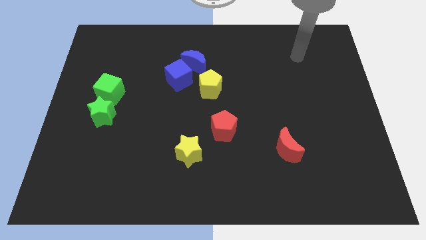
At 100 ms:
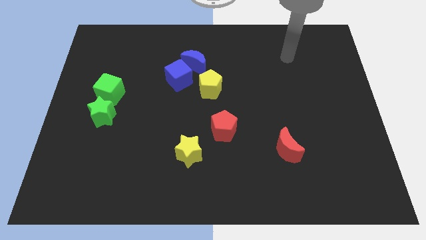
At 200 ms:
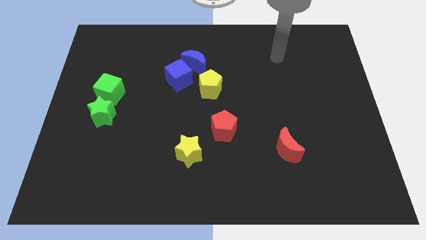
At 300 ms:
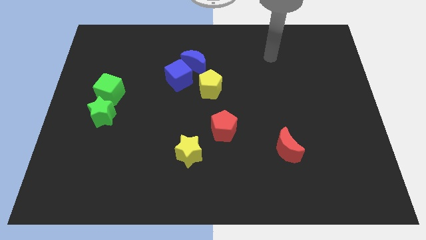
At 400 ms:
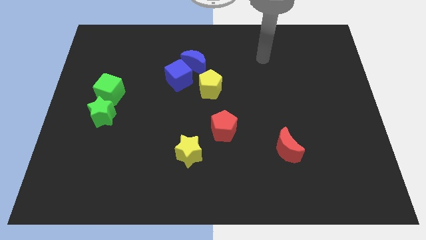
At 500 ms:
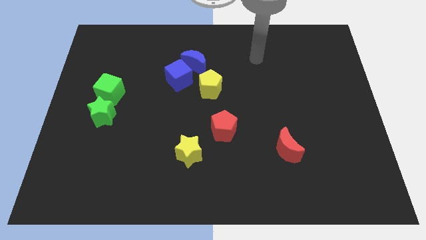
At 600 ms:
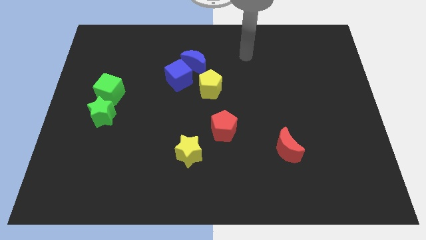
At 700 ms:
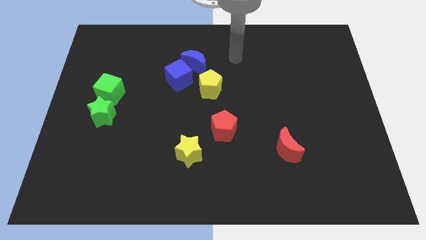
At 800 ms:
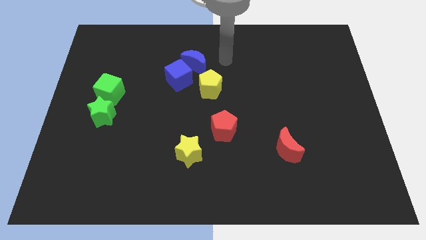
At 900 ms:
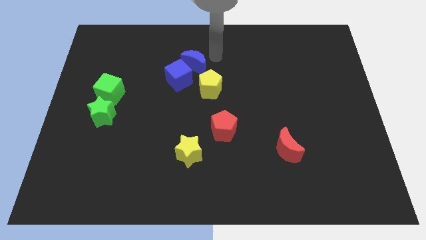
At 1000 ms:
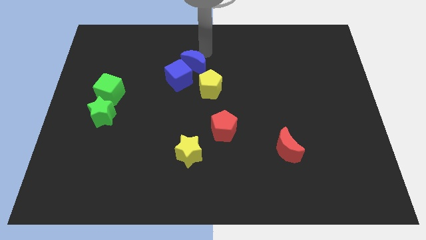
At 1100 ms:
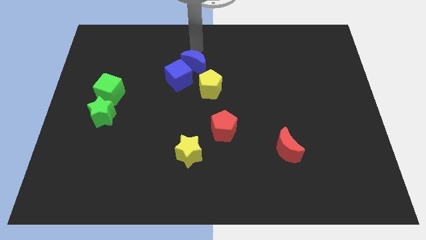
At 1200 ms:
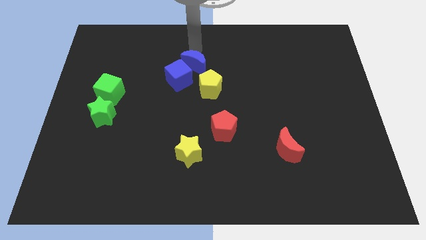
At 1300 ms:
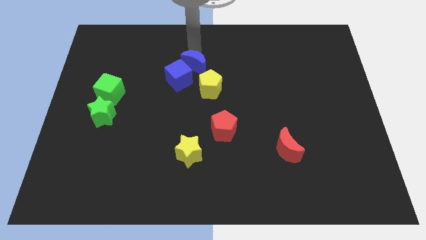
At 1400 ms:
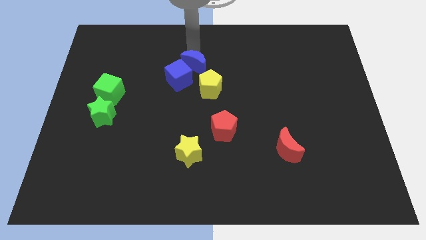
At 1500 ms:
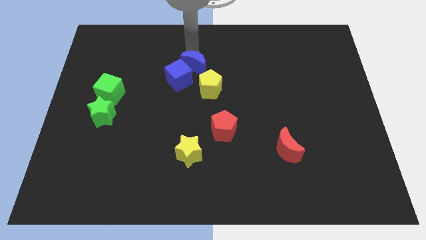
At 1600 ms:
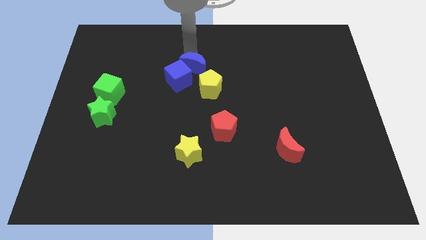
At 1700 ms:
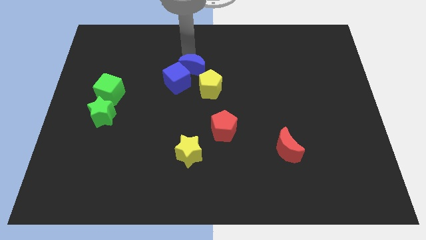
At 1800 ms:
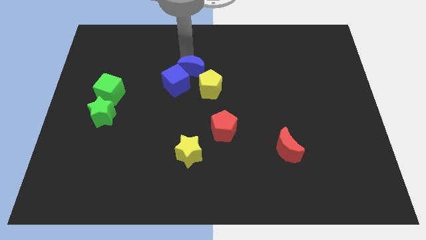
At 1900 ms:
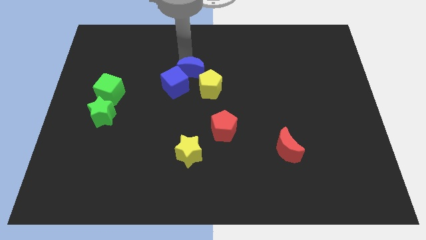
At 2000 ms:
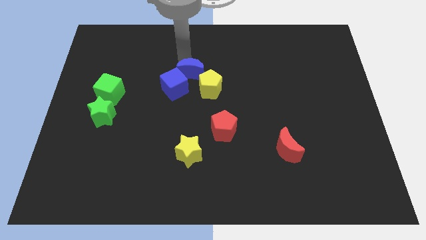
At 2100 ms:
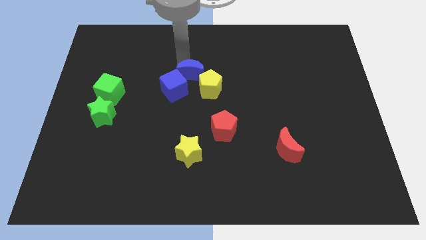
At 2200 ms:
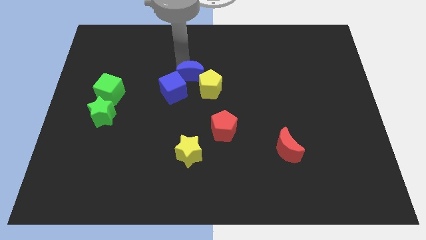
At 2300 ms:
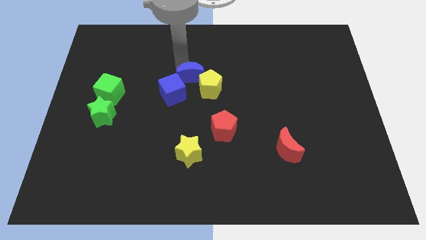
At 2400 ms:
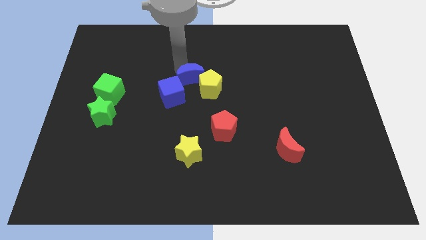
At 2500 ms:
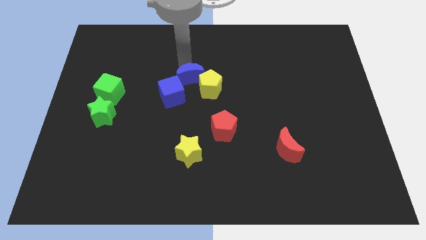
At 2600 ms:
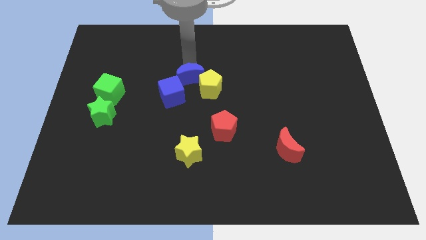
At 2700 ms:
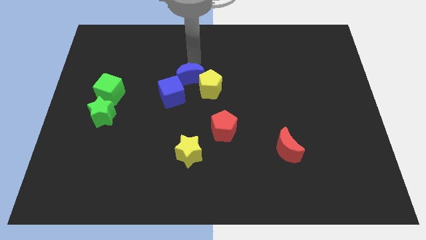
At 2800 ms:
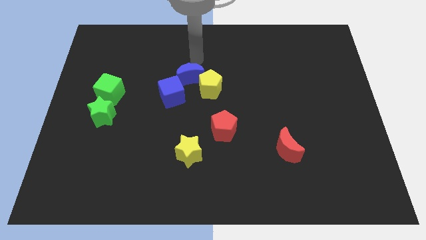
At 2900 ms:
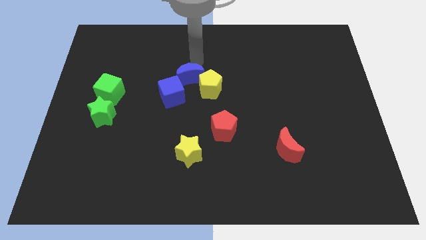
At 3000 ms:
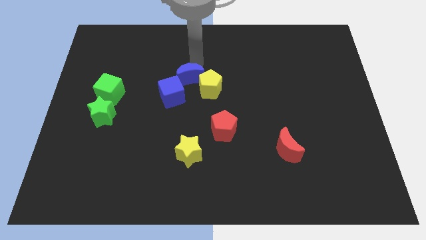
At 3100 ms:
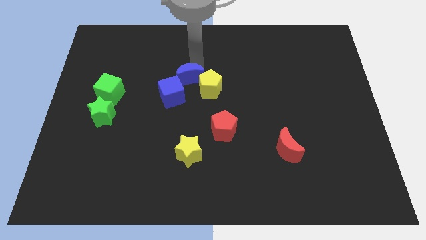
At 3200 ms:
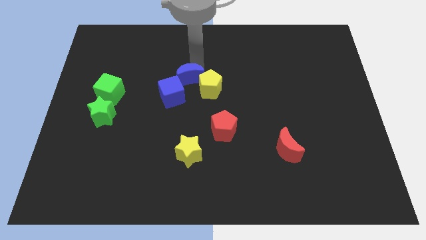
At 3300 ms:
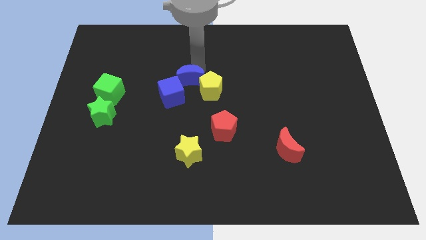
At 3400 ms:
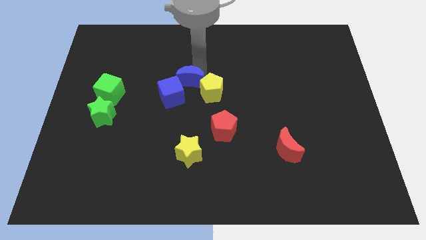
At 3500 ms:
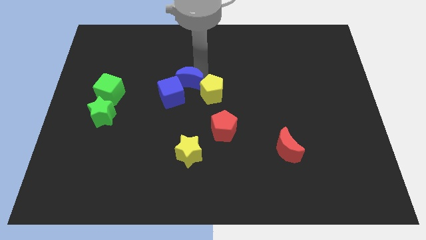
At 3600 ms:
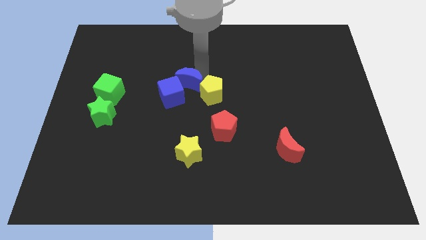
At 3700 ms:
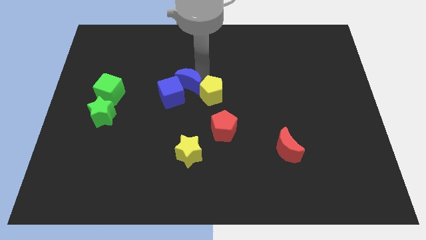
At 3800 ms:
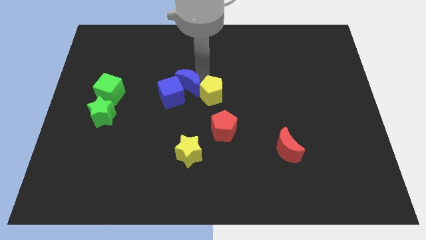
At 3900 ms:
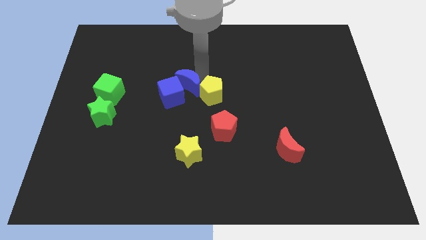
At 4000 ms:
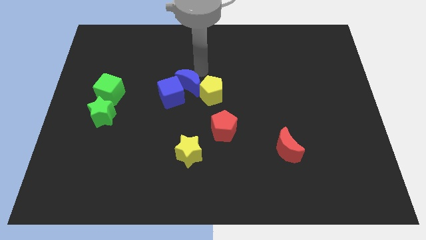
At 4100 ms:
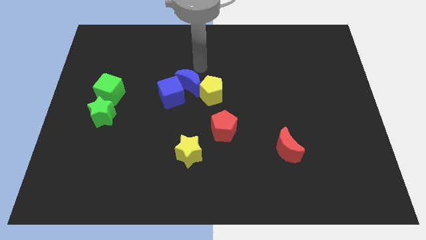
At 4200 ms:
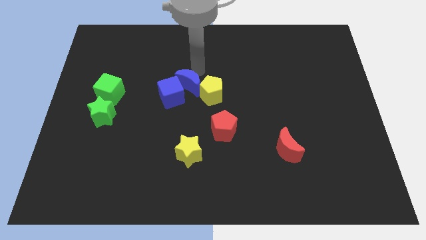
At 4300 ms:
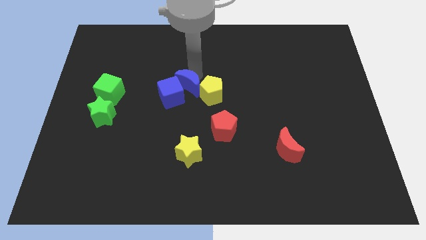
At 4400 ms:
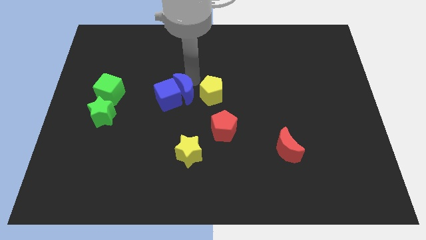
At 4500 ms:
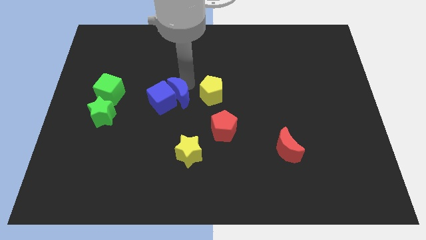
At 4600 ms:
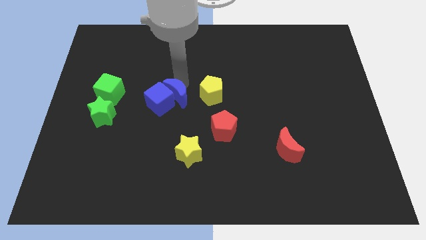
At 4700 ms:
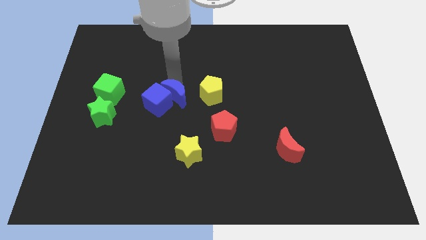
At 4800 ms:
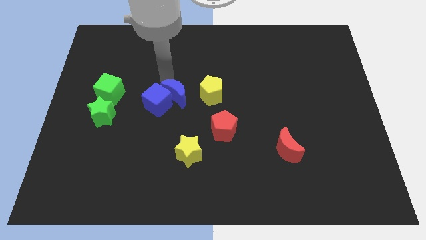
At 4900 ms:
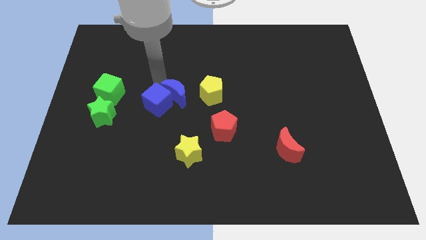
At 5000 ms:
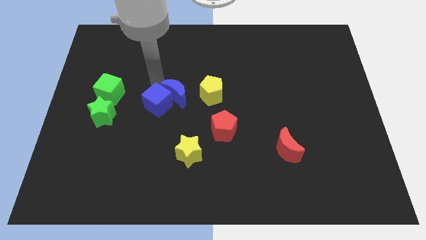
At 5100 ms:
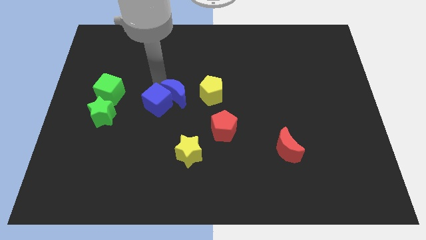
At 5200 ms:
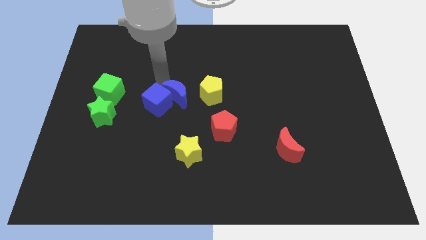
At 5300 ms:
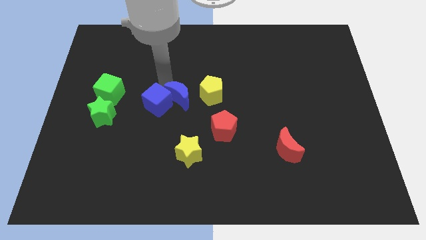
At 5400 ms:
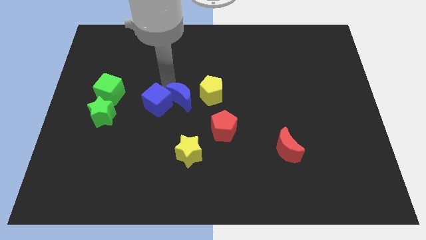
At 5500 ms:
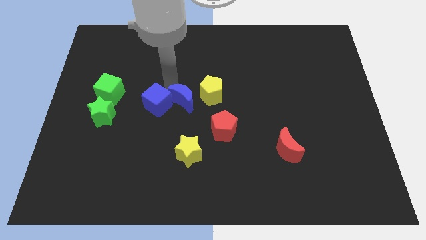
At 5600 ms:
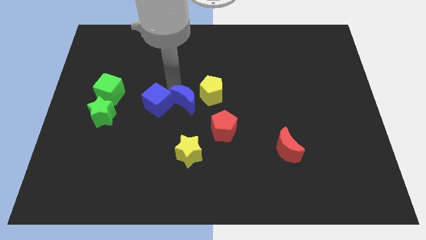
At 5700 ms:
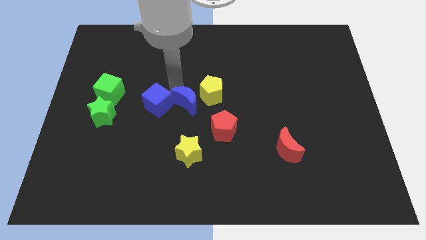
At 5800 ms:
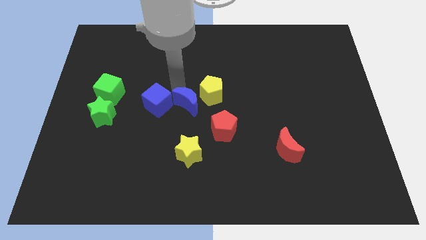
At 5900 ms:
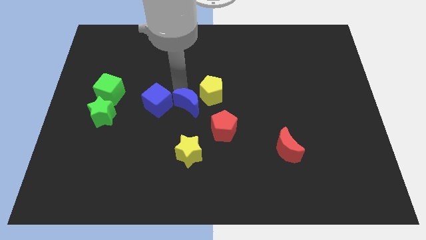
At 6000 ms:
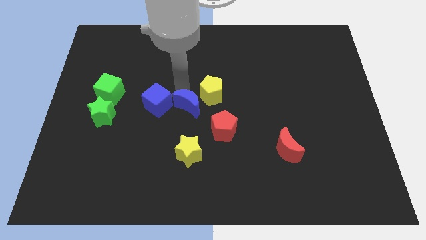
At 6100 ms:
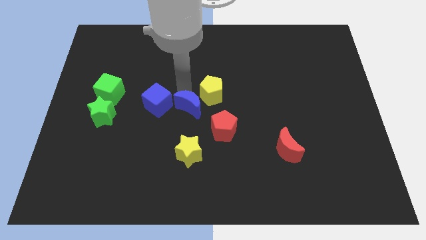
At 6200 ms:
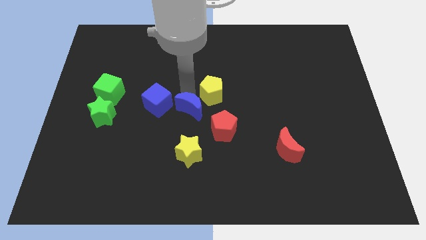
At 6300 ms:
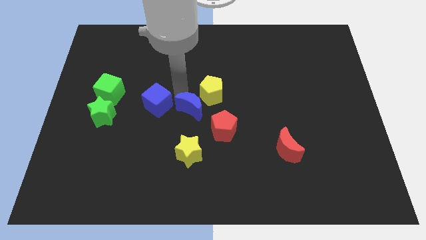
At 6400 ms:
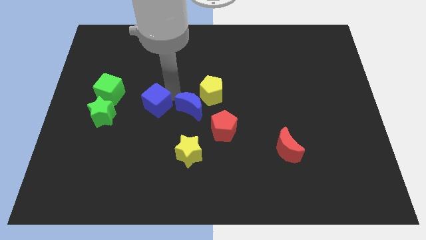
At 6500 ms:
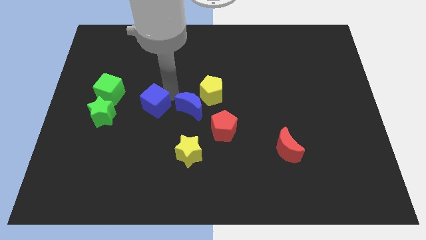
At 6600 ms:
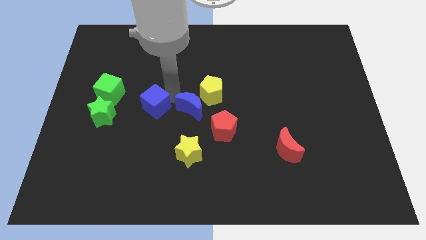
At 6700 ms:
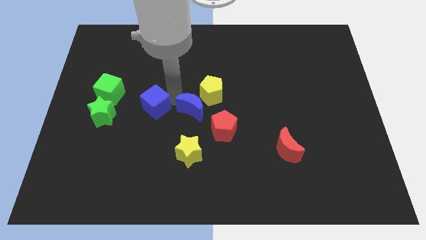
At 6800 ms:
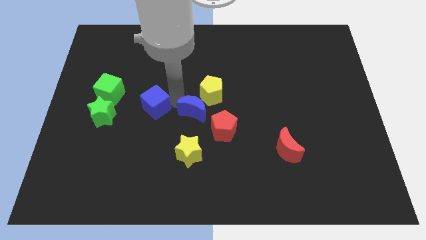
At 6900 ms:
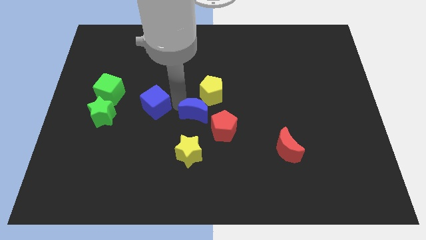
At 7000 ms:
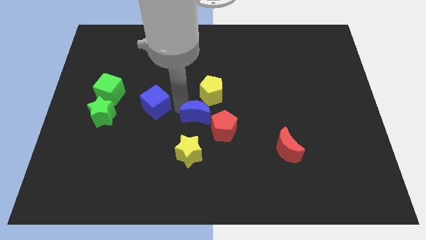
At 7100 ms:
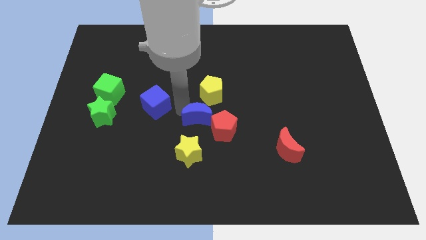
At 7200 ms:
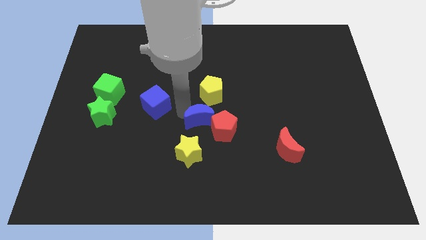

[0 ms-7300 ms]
move the blue moon next to the red pentagon
